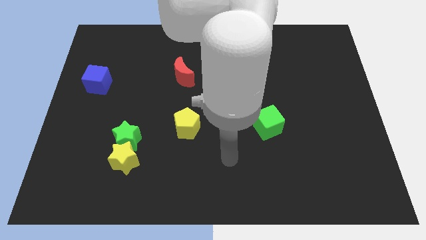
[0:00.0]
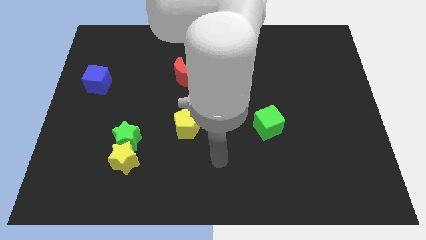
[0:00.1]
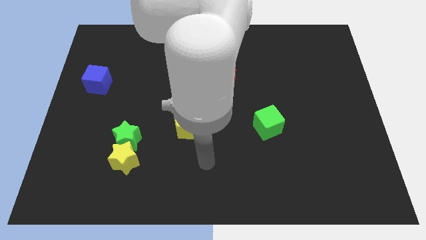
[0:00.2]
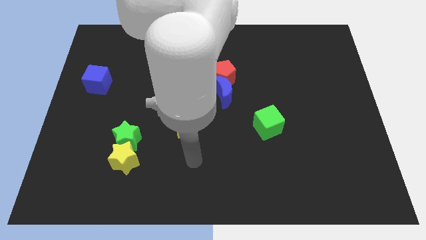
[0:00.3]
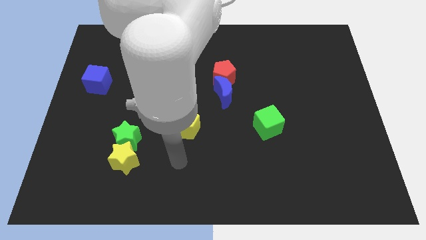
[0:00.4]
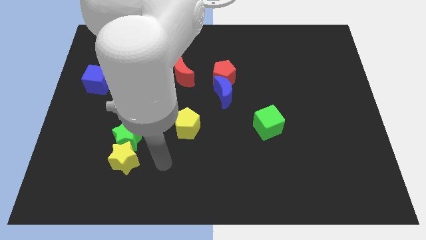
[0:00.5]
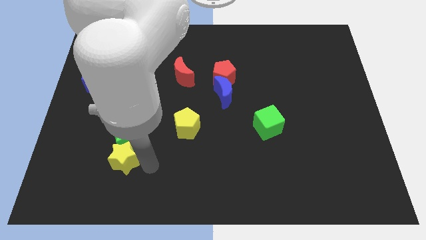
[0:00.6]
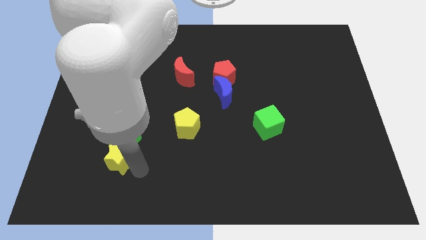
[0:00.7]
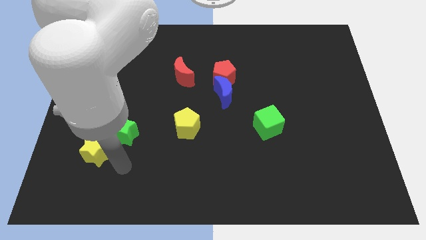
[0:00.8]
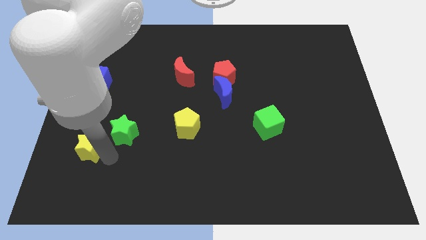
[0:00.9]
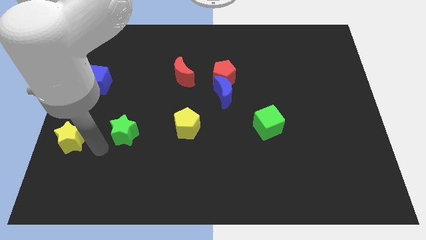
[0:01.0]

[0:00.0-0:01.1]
pull the green star apart from the yellow star

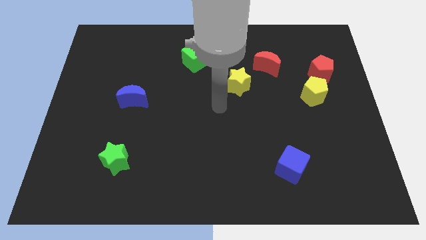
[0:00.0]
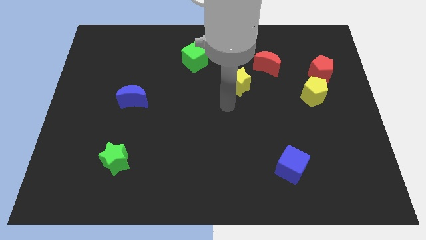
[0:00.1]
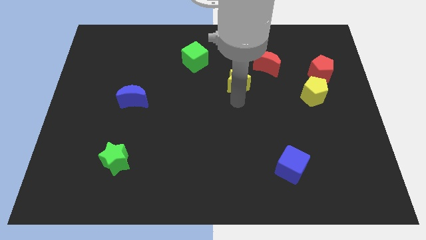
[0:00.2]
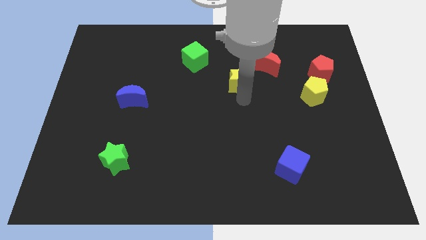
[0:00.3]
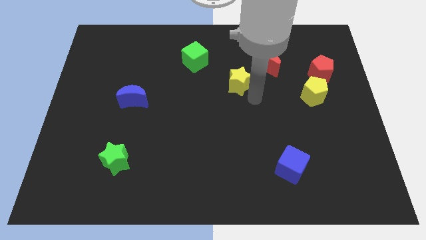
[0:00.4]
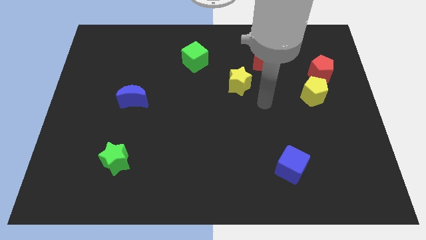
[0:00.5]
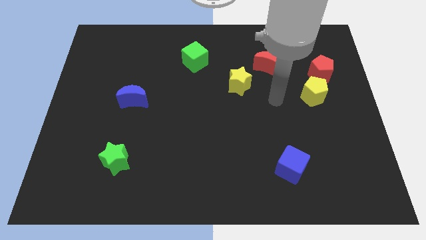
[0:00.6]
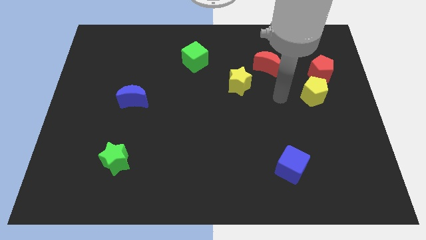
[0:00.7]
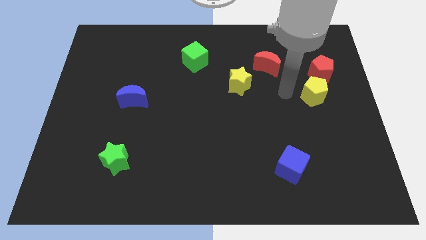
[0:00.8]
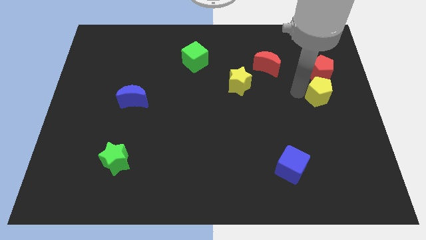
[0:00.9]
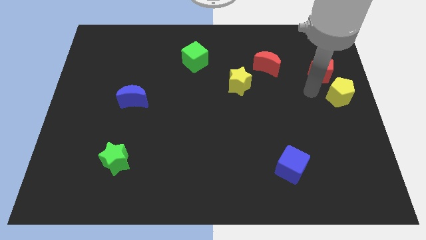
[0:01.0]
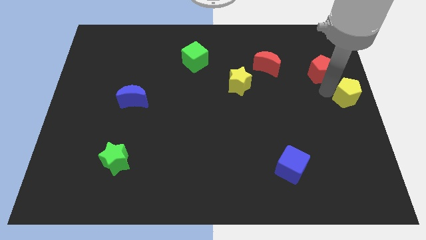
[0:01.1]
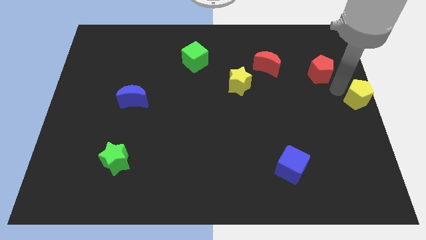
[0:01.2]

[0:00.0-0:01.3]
separate the red pentagon from the yellow pentagon

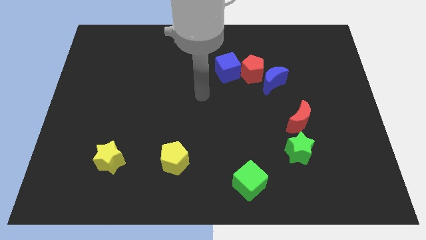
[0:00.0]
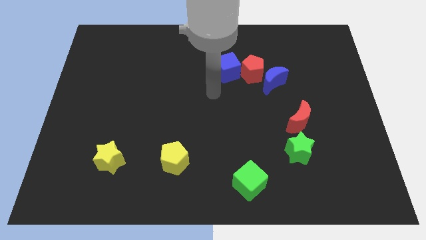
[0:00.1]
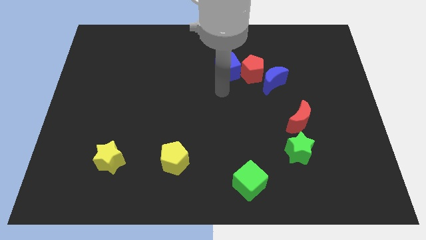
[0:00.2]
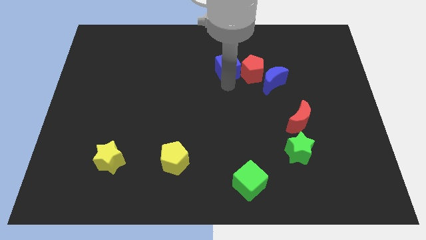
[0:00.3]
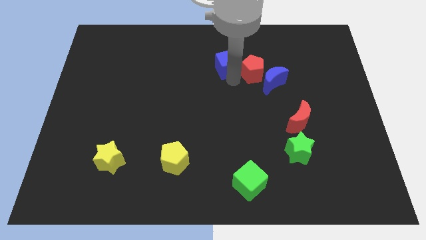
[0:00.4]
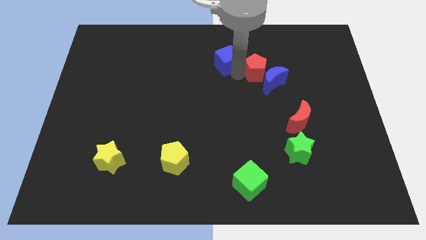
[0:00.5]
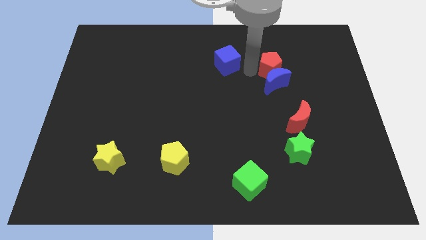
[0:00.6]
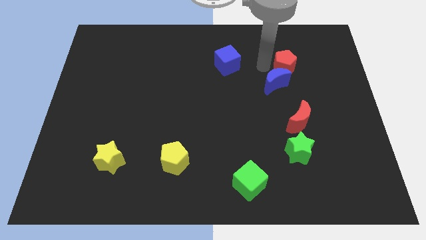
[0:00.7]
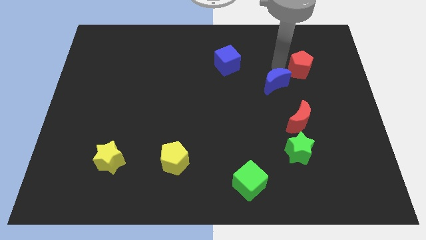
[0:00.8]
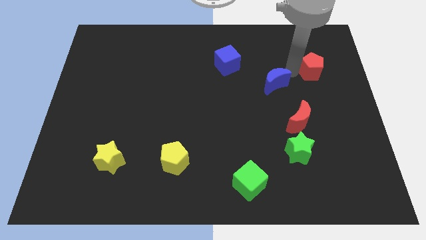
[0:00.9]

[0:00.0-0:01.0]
separate the blue moon from the red pentagon

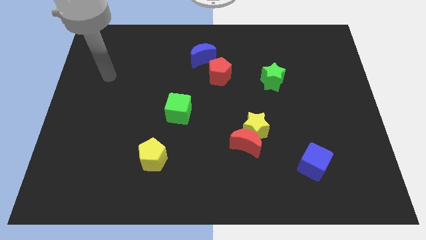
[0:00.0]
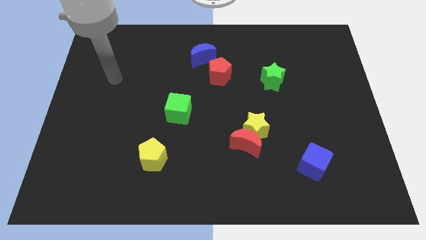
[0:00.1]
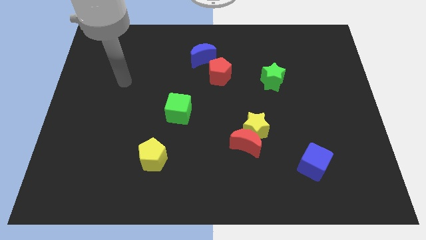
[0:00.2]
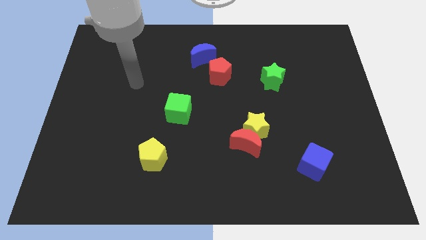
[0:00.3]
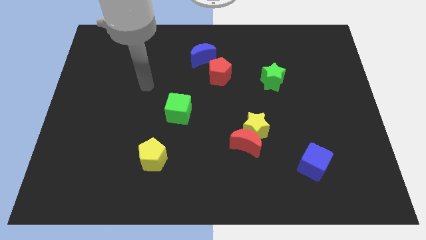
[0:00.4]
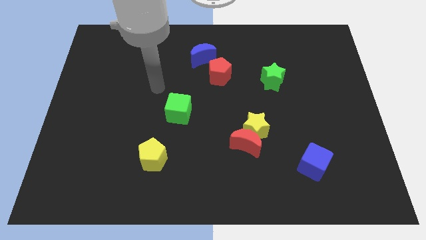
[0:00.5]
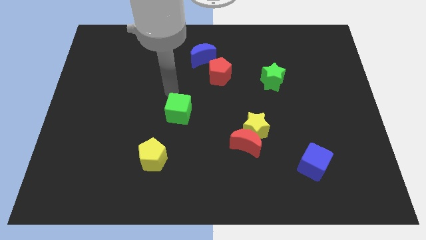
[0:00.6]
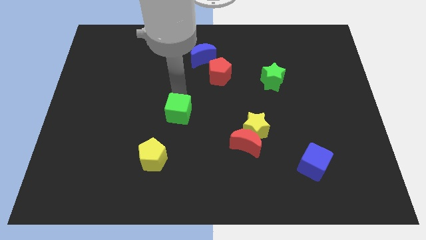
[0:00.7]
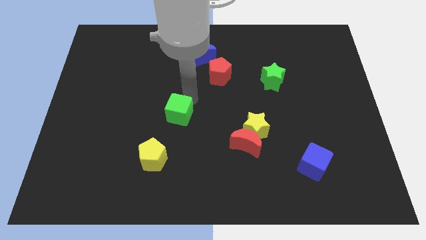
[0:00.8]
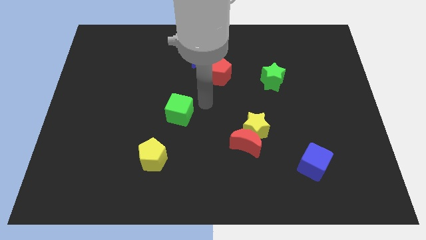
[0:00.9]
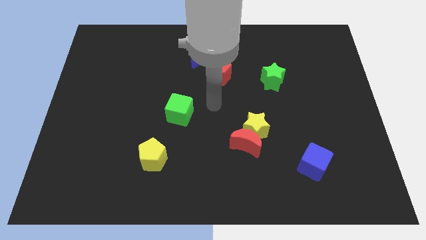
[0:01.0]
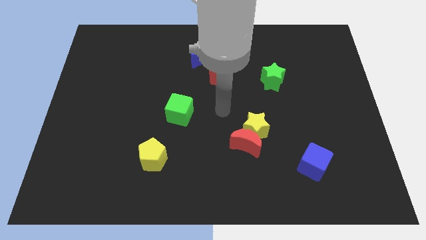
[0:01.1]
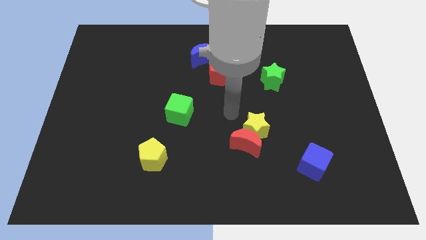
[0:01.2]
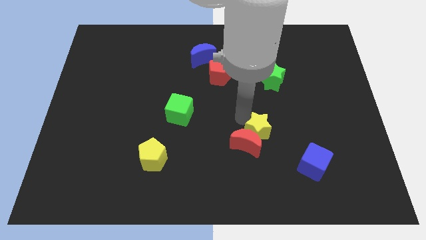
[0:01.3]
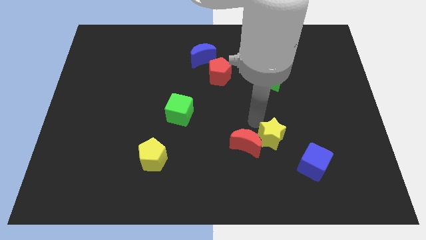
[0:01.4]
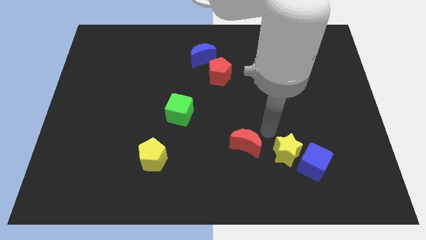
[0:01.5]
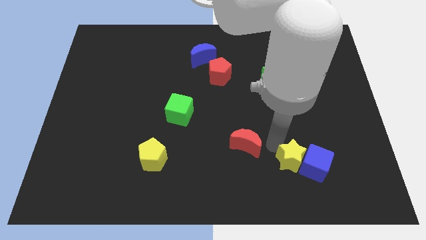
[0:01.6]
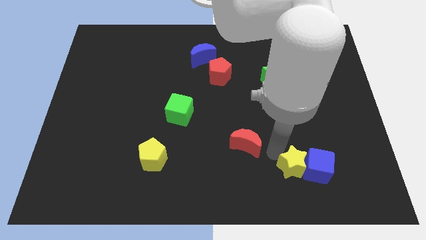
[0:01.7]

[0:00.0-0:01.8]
separate the red moon from the yellow star

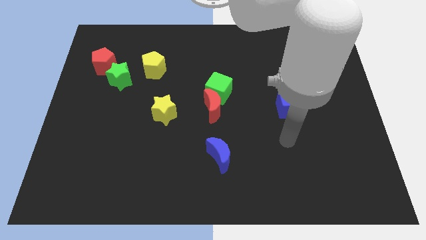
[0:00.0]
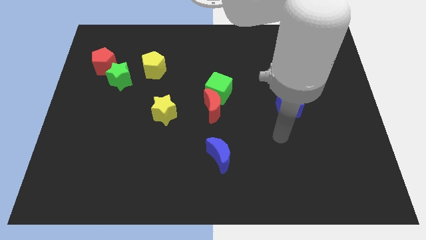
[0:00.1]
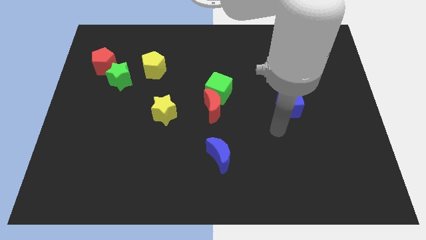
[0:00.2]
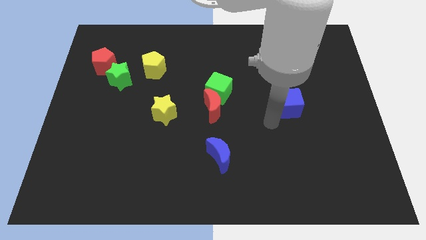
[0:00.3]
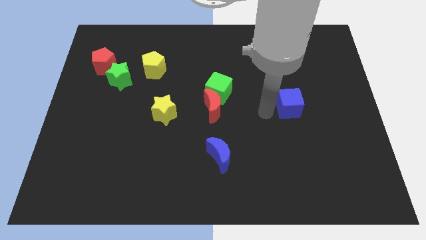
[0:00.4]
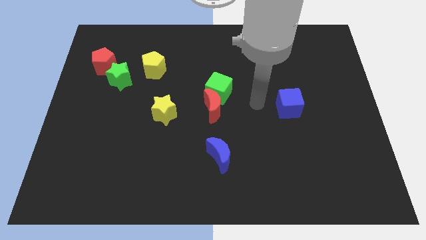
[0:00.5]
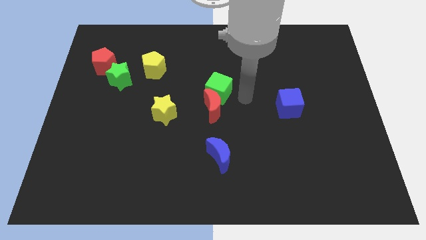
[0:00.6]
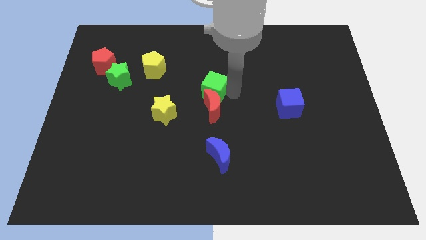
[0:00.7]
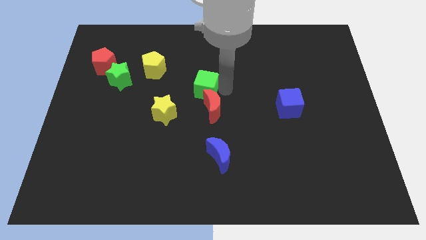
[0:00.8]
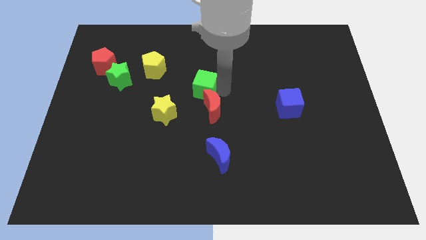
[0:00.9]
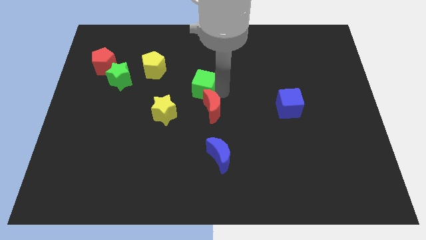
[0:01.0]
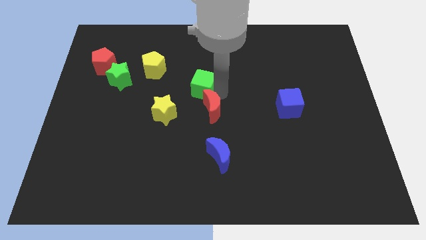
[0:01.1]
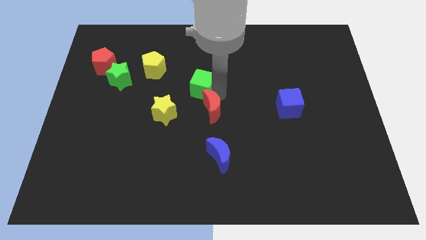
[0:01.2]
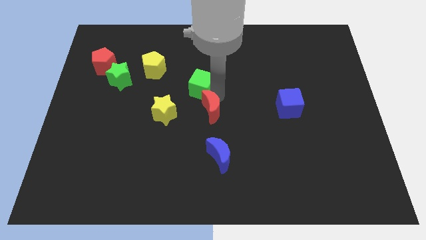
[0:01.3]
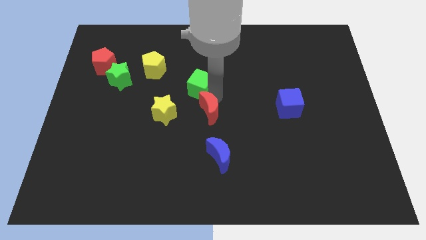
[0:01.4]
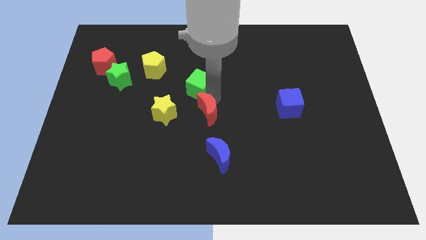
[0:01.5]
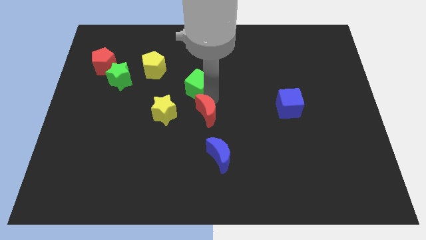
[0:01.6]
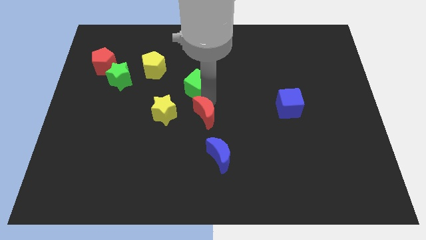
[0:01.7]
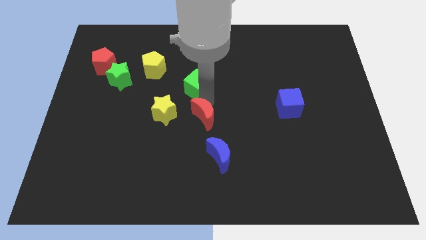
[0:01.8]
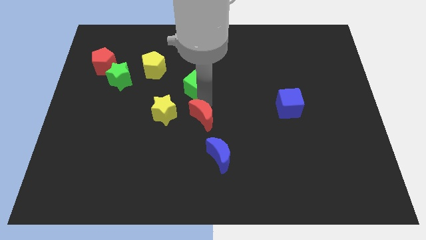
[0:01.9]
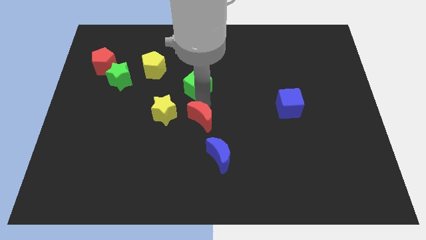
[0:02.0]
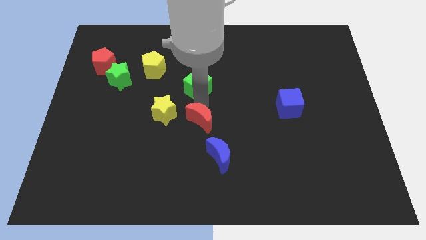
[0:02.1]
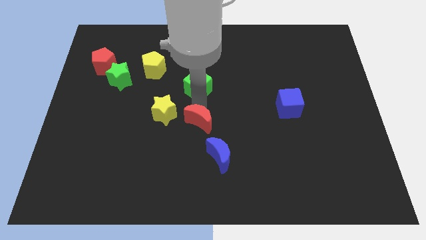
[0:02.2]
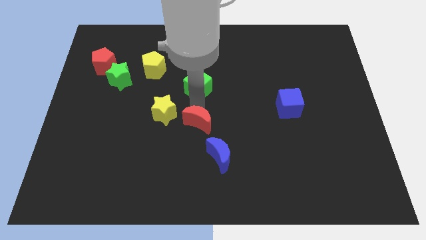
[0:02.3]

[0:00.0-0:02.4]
move the red moon away from the green cube

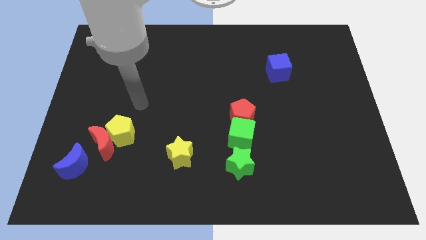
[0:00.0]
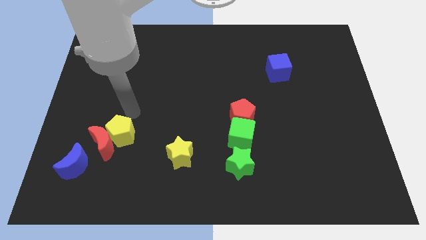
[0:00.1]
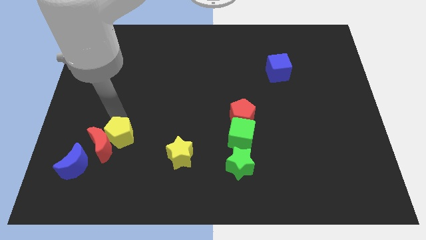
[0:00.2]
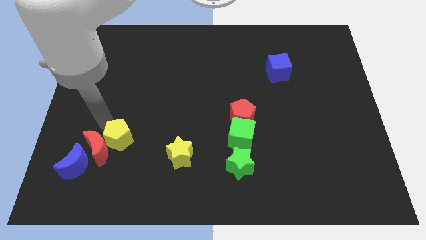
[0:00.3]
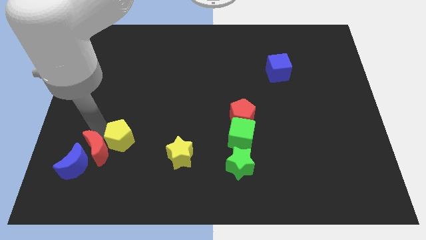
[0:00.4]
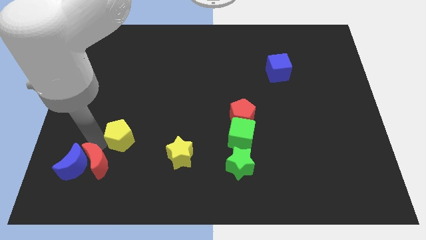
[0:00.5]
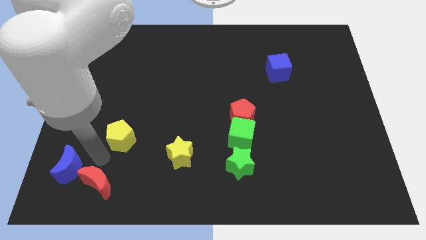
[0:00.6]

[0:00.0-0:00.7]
pull the yellow pentagon apart from the red moon

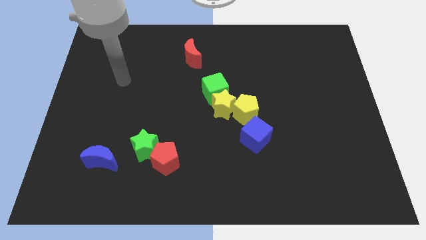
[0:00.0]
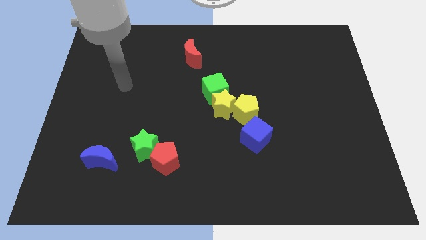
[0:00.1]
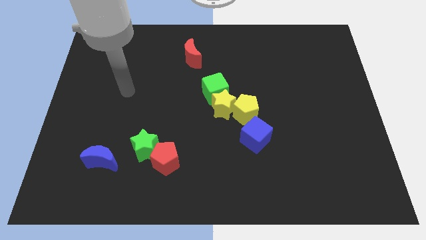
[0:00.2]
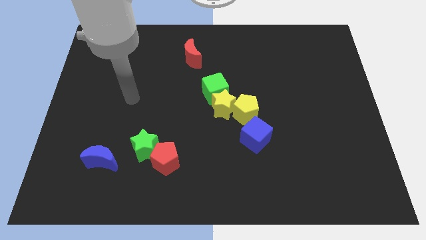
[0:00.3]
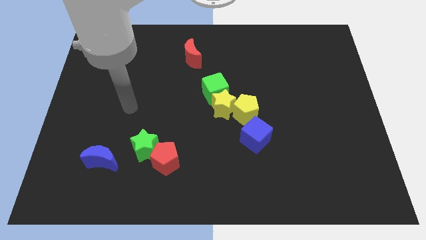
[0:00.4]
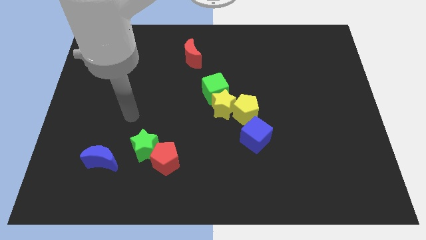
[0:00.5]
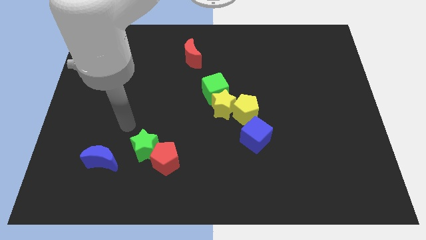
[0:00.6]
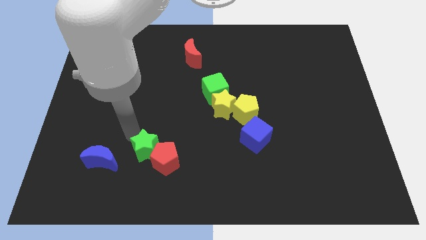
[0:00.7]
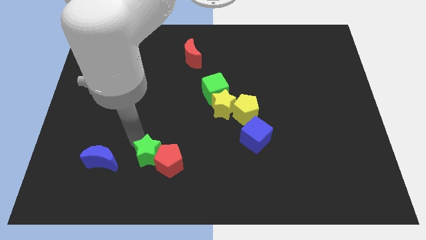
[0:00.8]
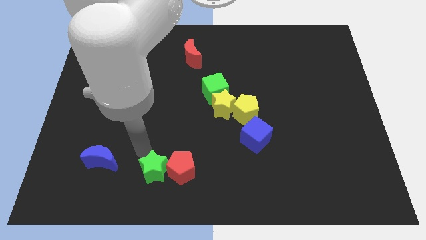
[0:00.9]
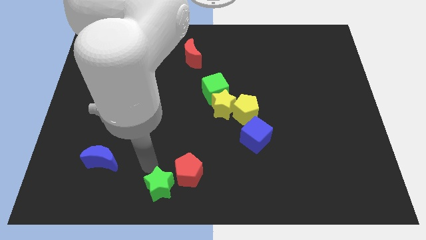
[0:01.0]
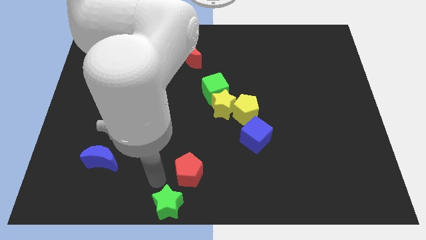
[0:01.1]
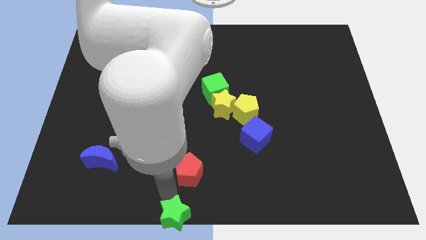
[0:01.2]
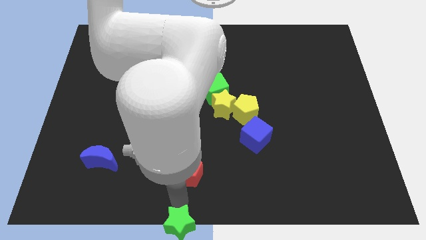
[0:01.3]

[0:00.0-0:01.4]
separate the red pentagon from the green star
